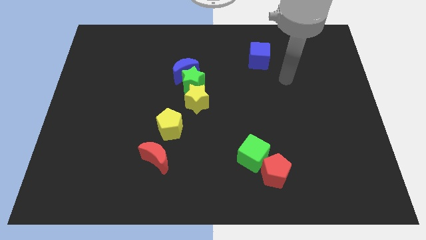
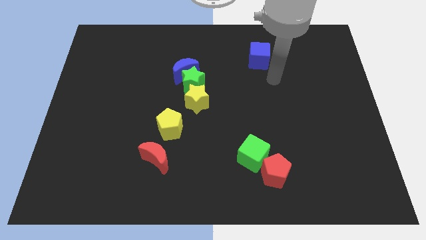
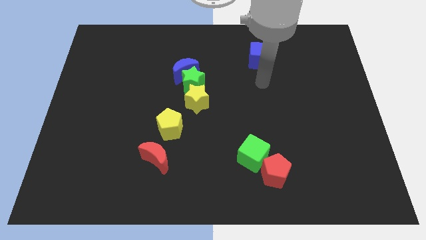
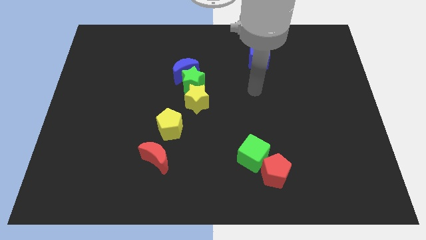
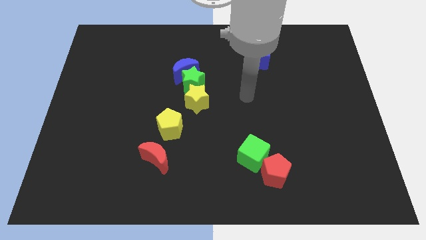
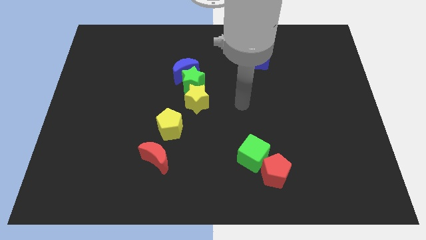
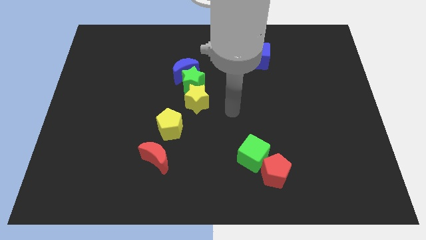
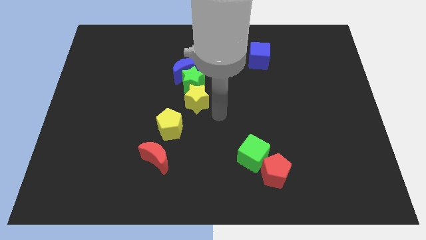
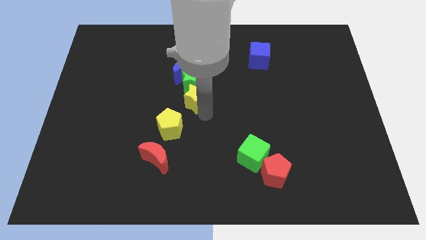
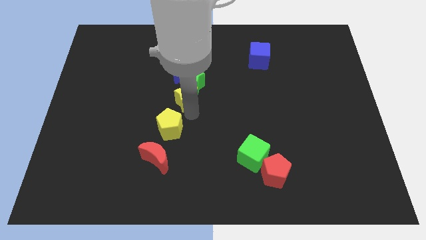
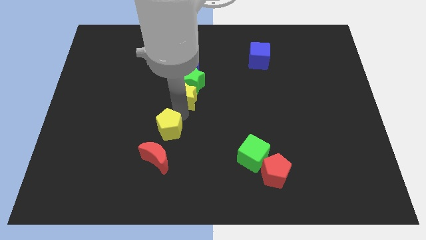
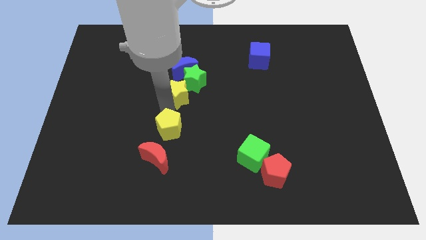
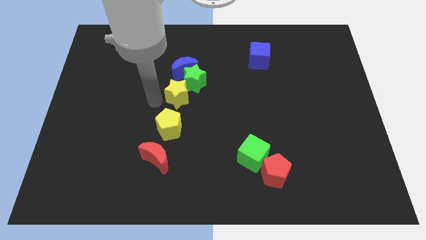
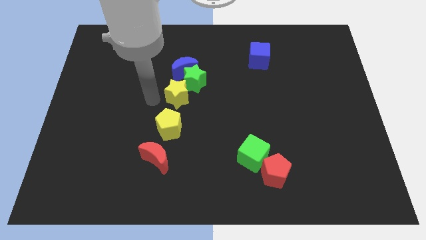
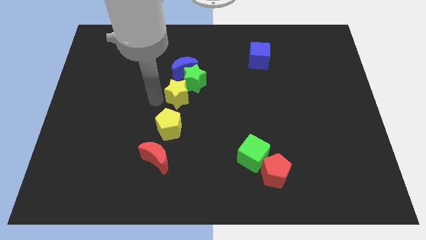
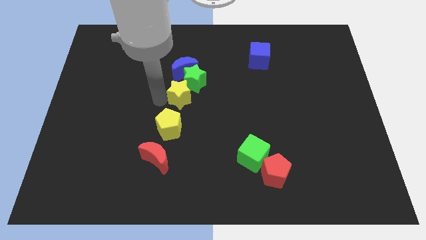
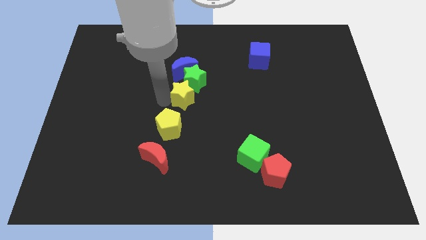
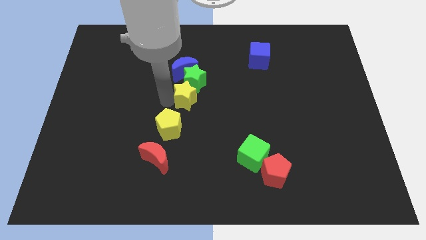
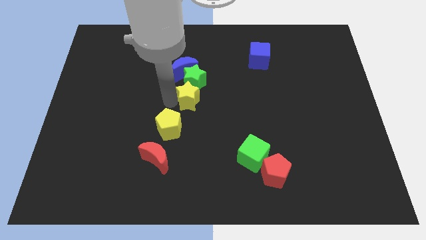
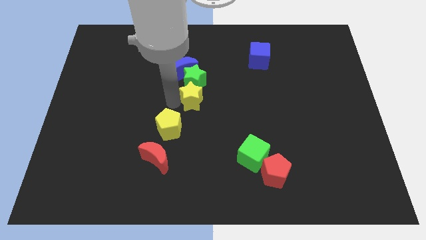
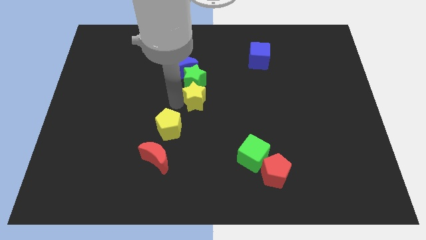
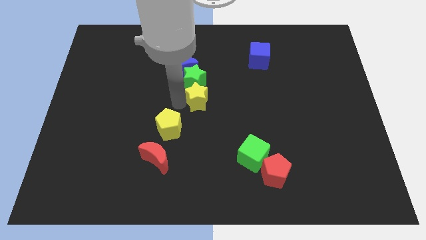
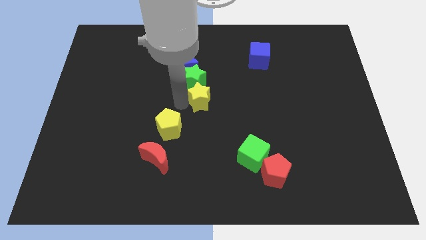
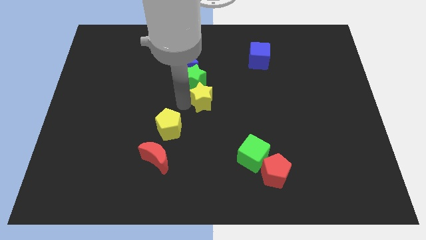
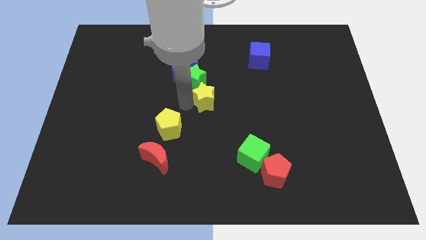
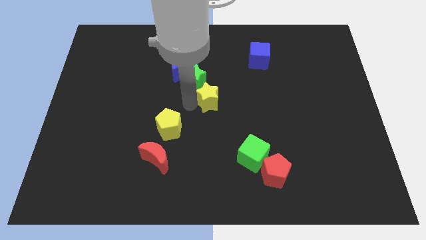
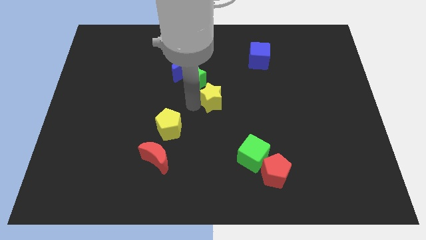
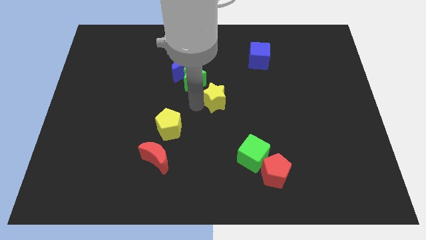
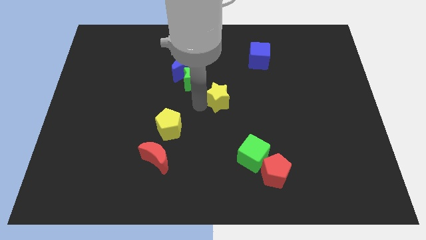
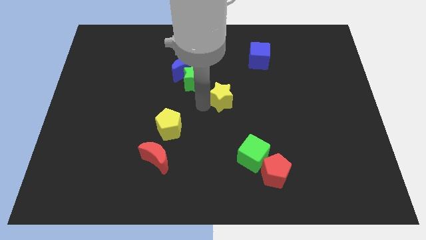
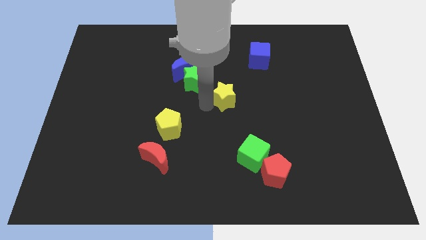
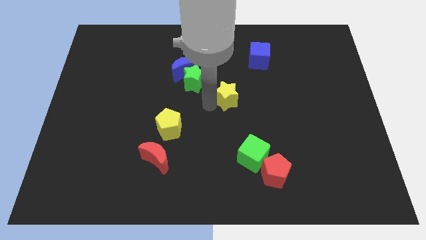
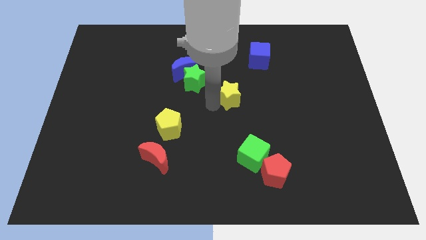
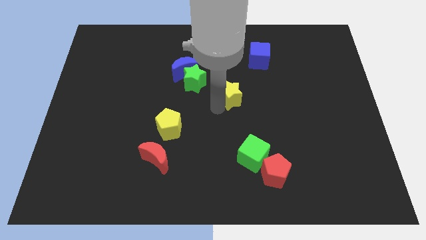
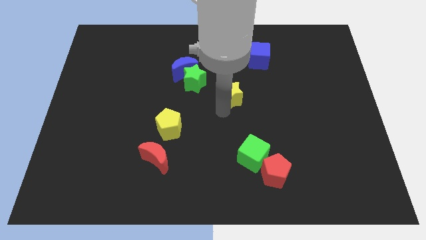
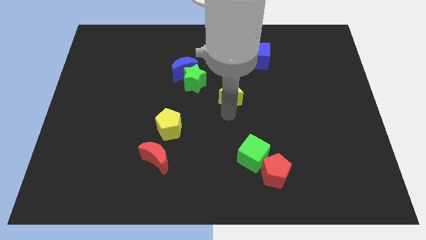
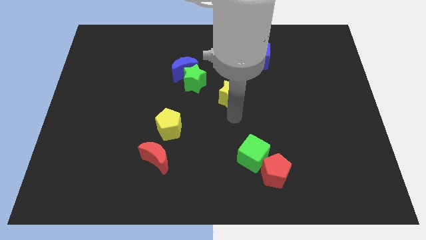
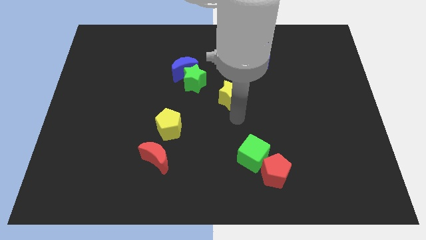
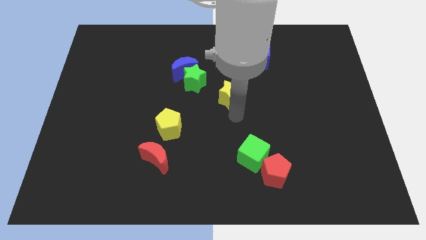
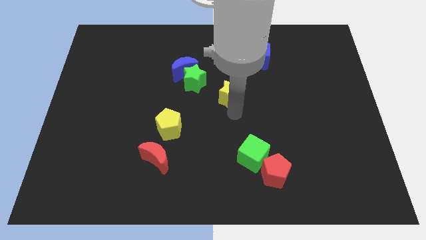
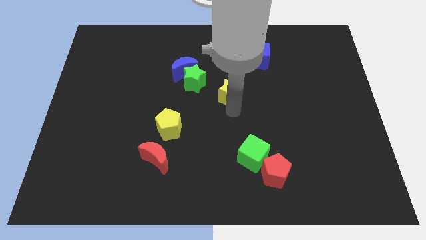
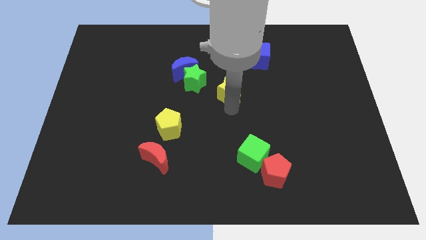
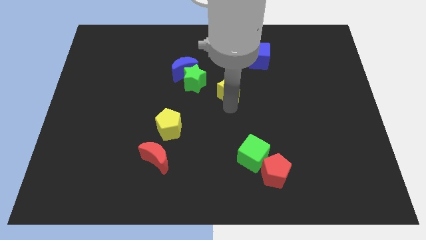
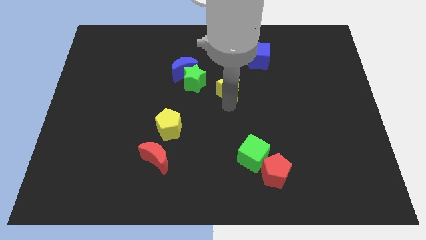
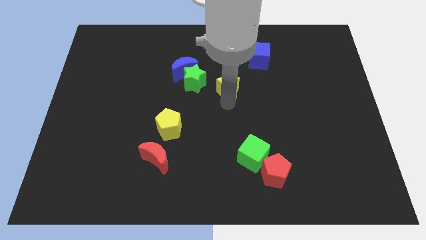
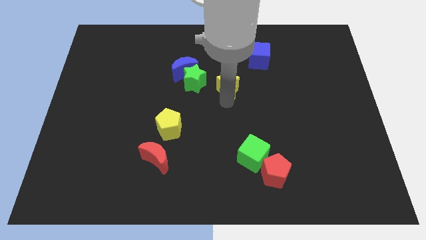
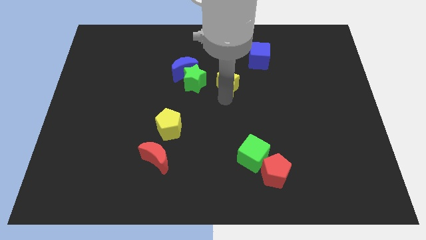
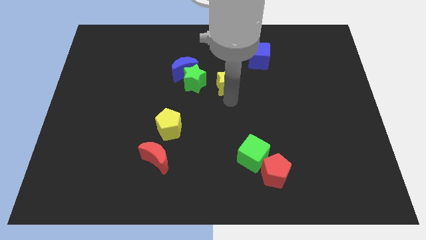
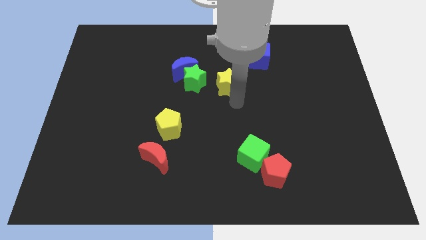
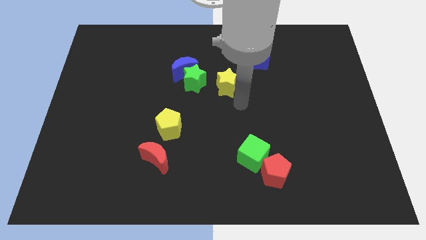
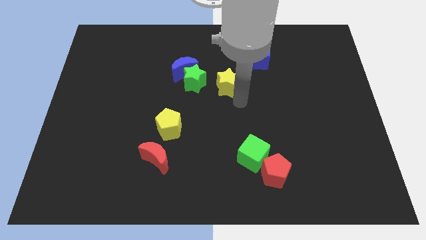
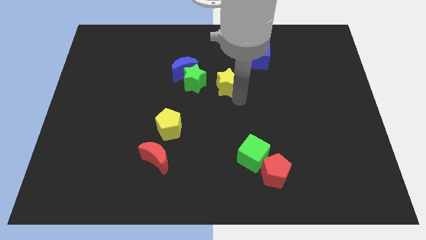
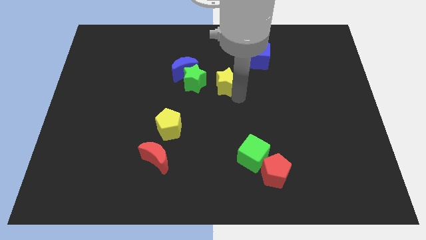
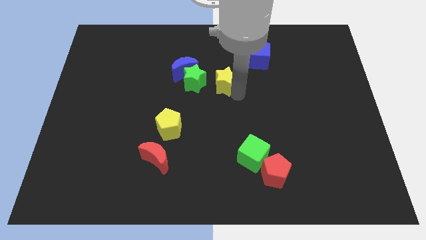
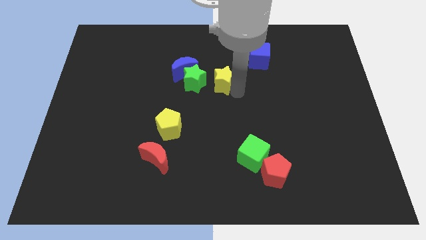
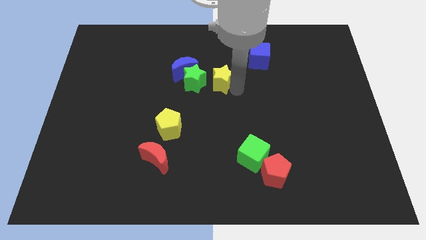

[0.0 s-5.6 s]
put the yellow star diagonally up and to the right of the green star
